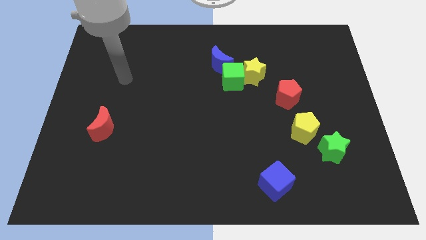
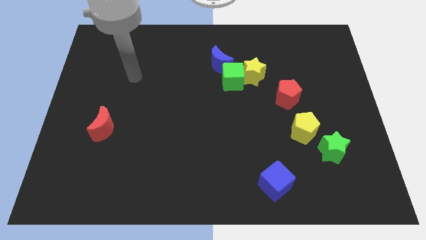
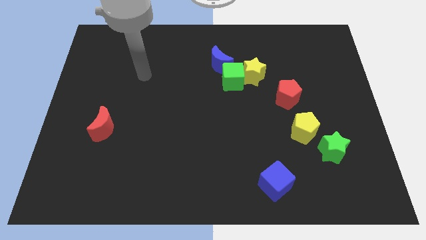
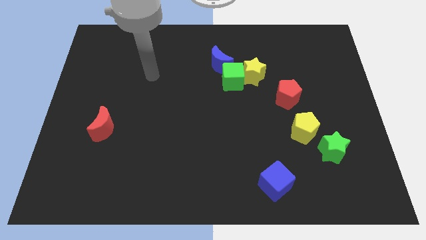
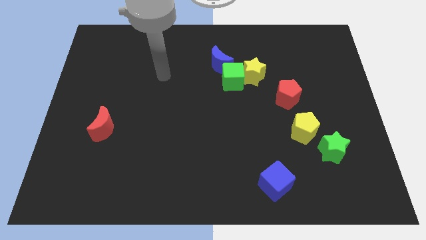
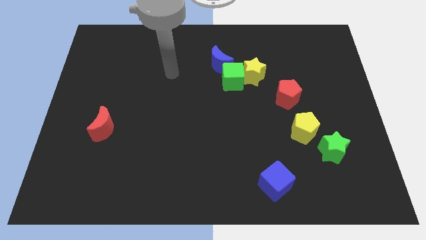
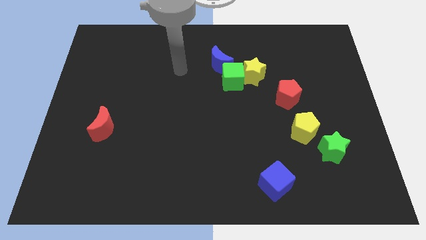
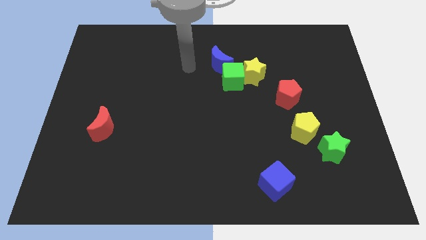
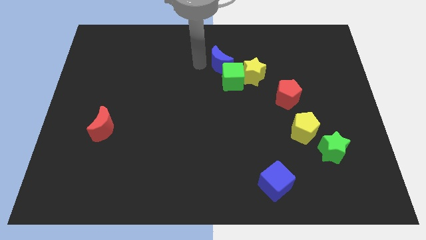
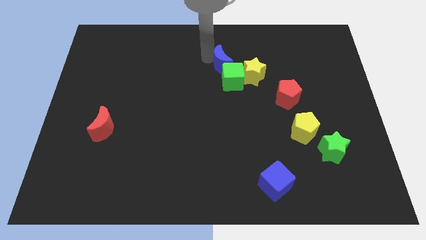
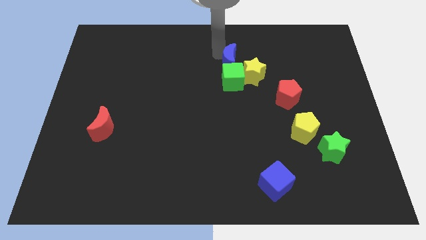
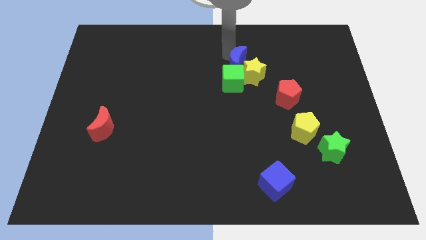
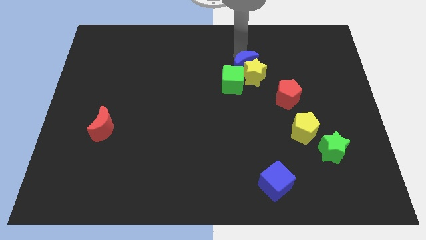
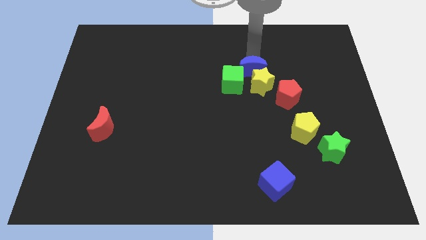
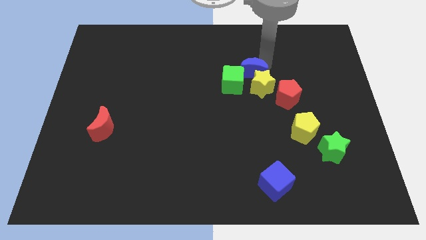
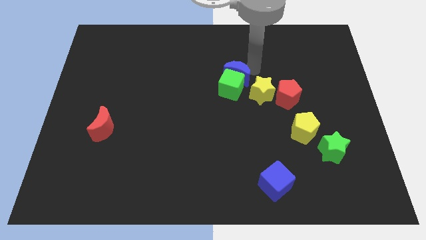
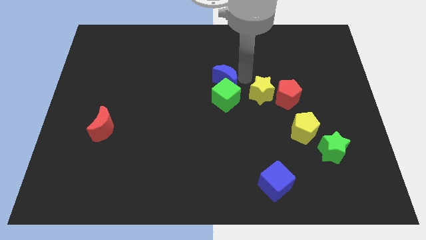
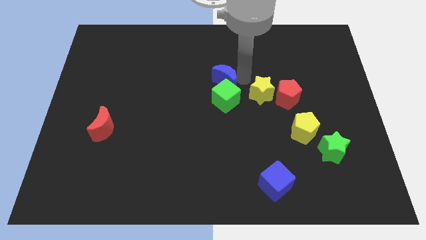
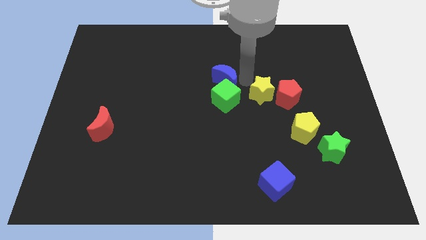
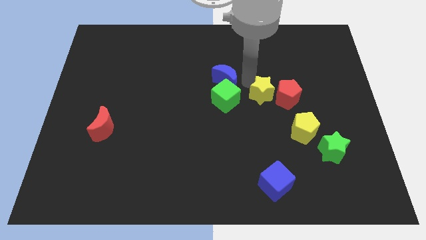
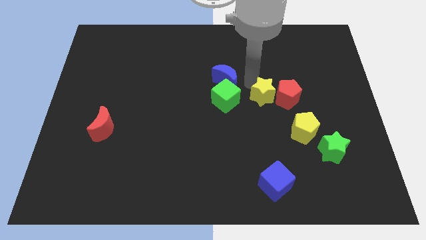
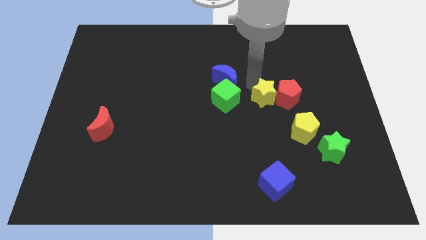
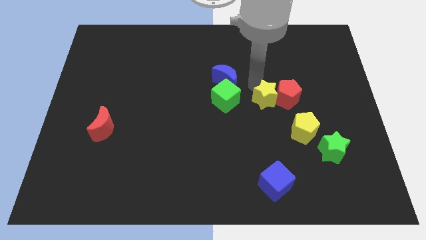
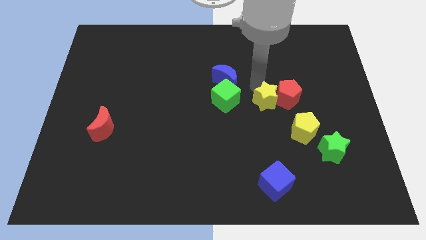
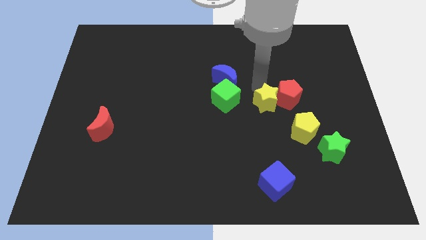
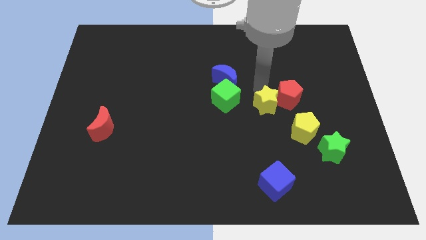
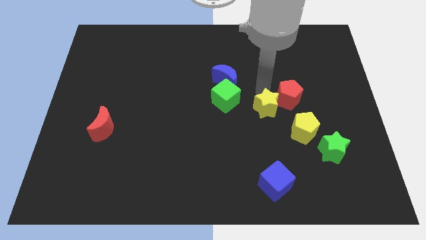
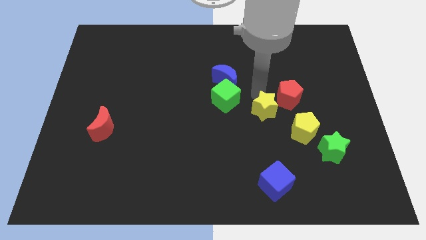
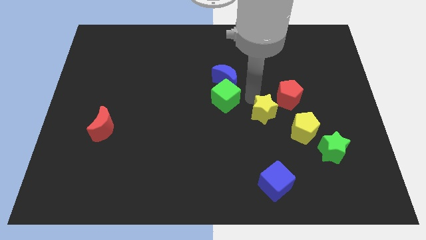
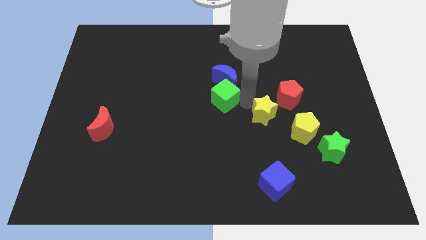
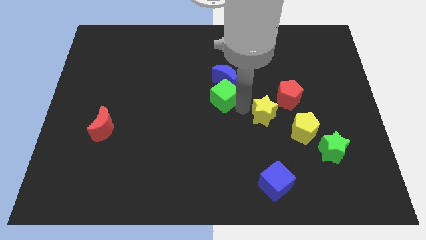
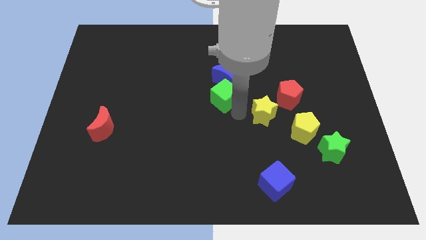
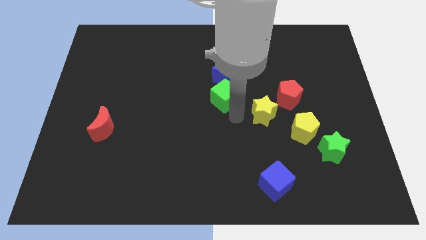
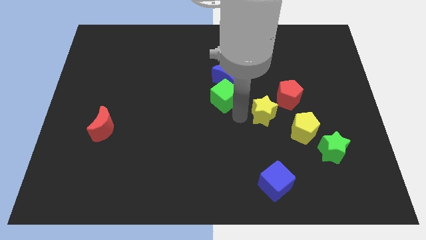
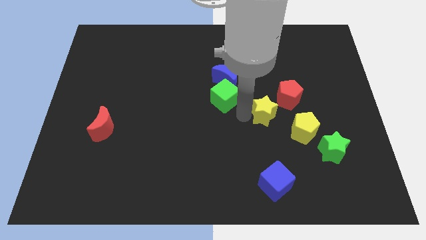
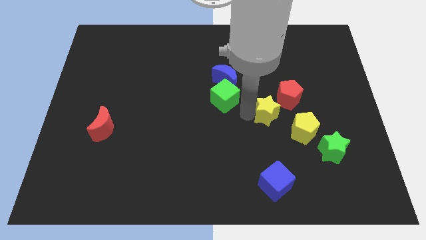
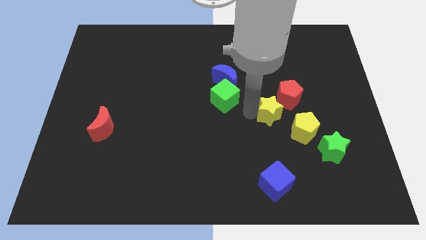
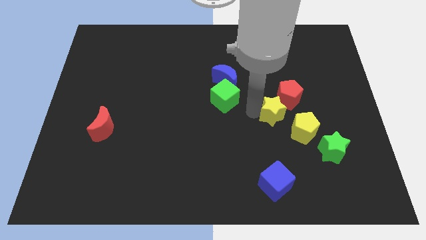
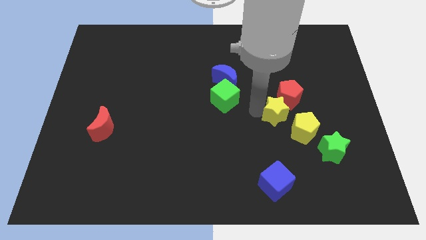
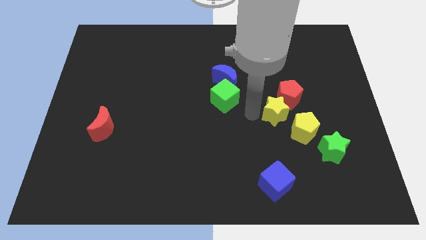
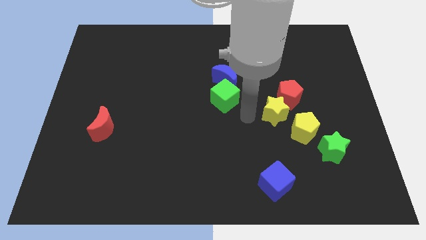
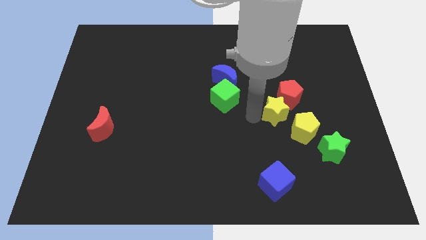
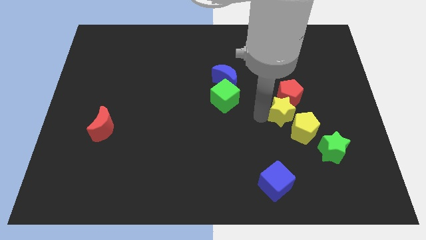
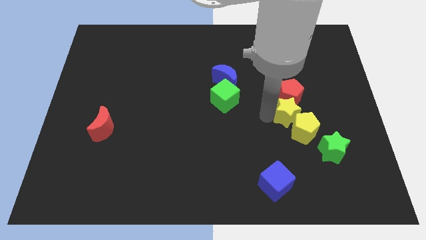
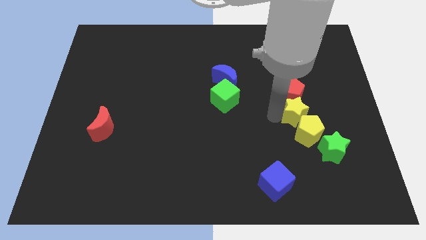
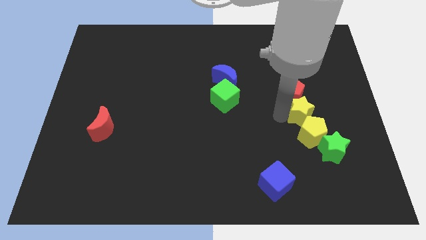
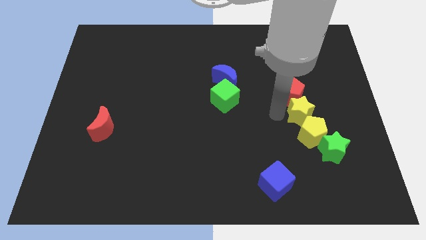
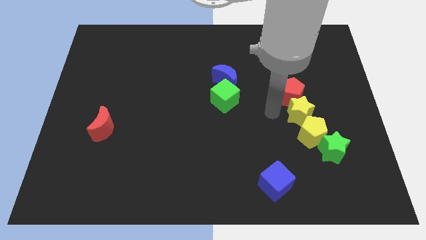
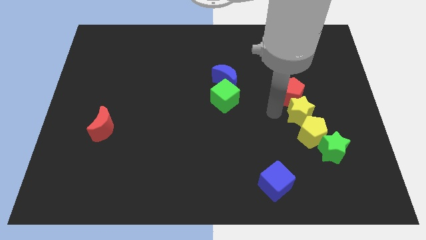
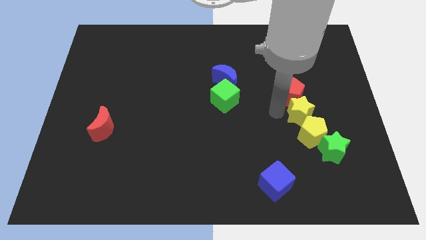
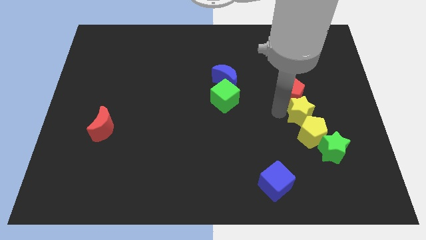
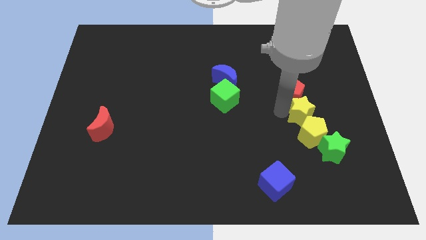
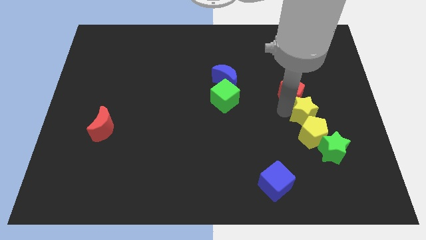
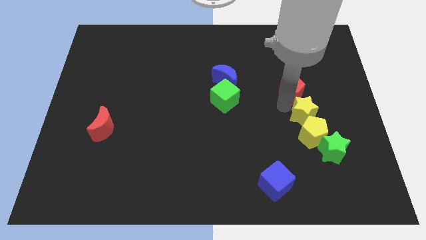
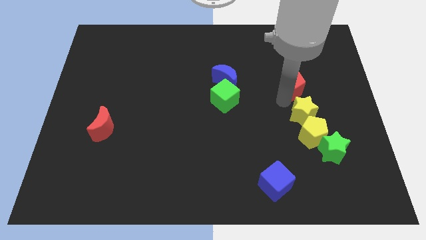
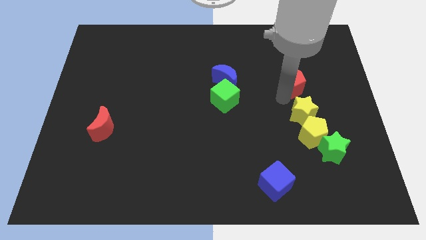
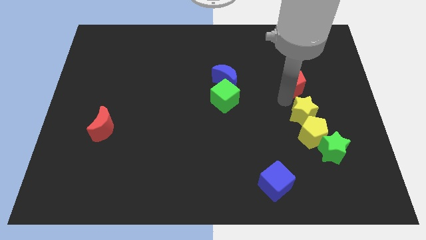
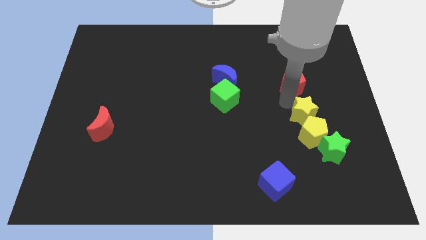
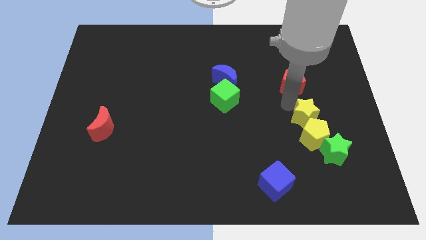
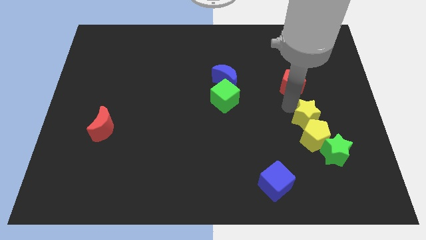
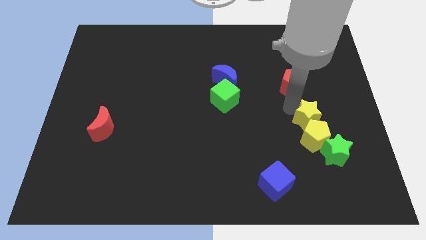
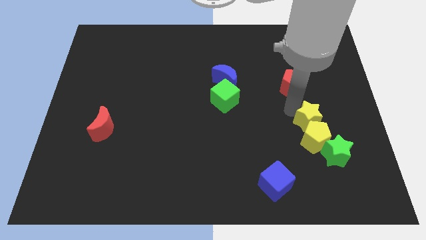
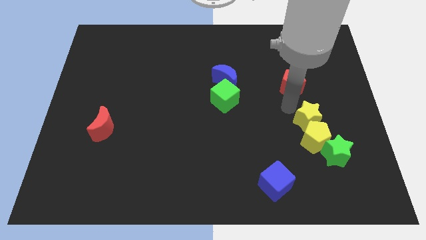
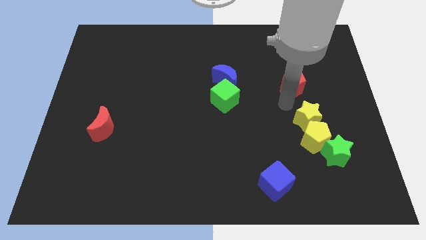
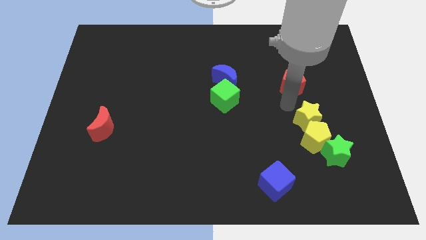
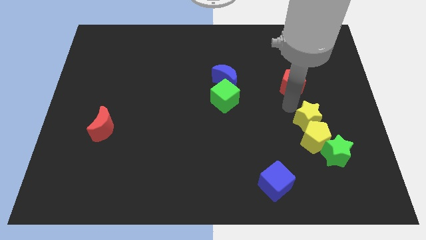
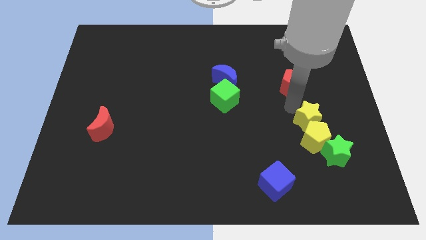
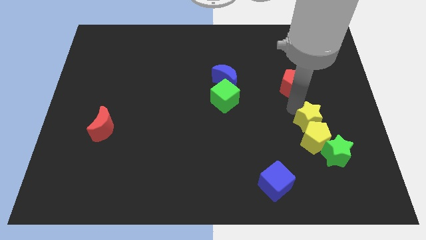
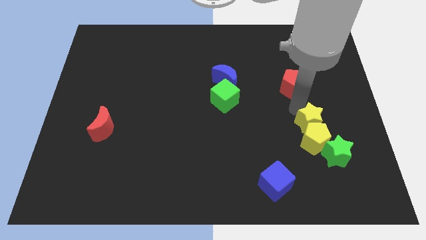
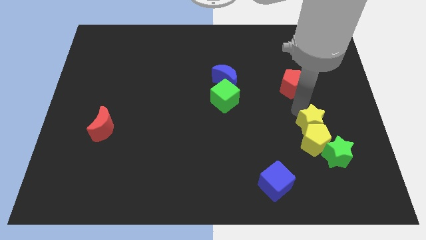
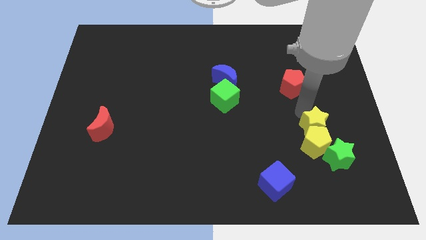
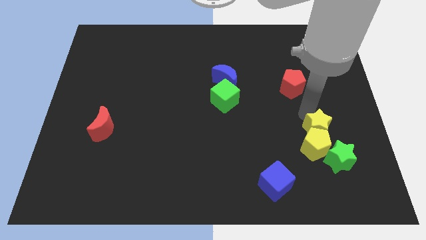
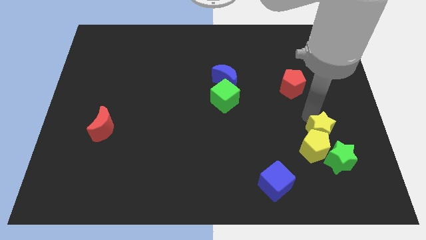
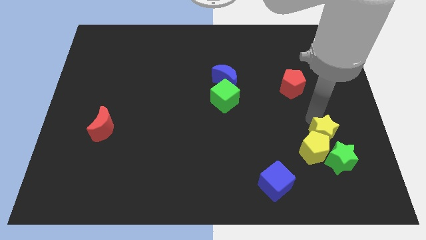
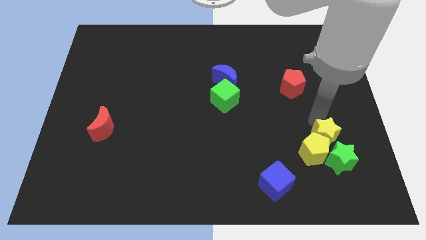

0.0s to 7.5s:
put the yellow star next to the green star
